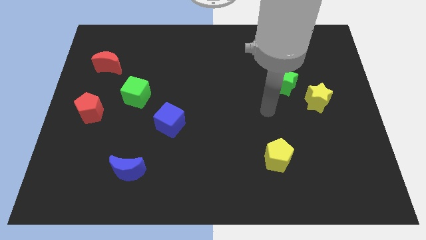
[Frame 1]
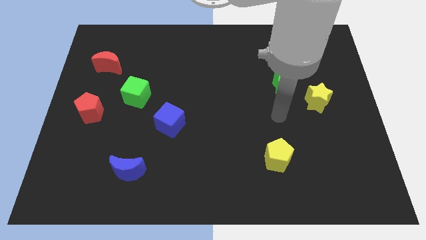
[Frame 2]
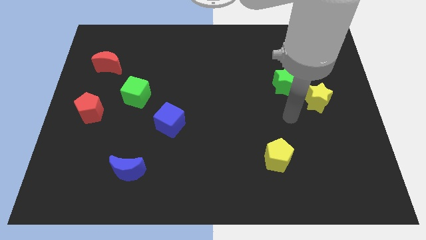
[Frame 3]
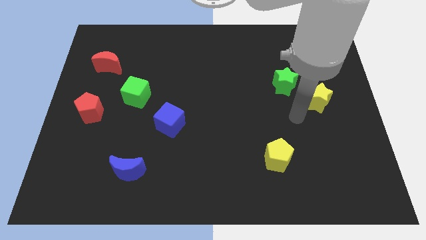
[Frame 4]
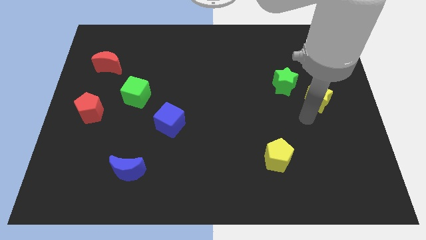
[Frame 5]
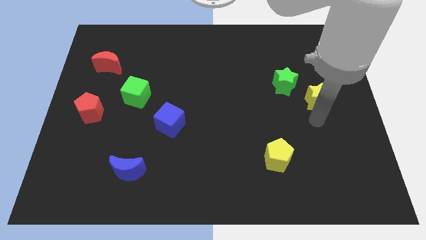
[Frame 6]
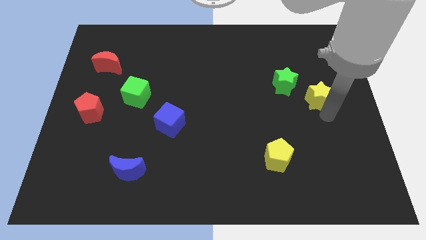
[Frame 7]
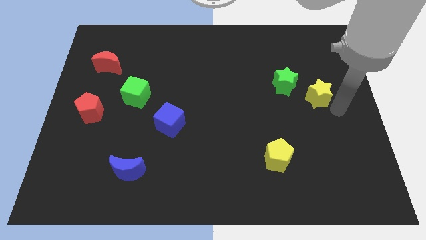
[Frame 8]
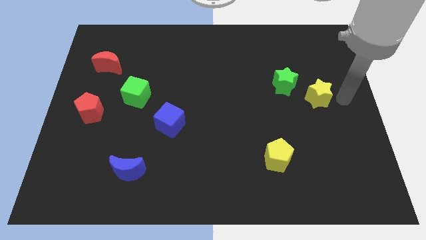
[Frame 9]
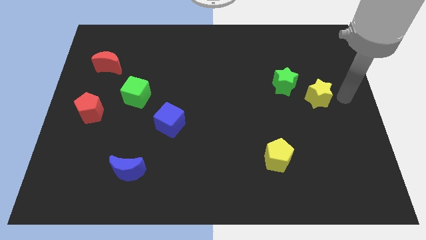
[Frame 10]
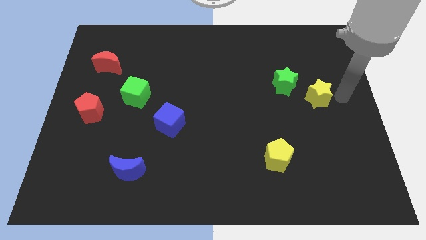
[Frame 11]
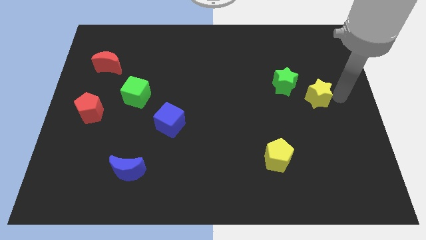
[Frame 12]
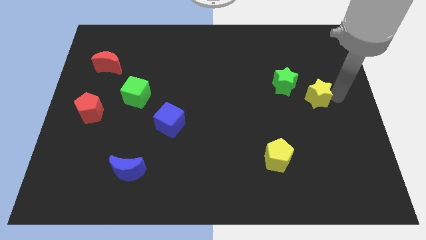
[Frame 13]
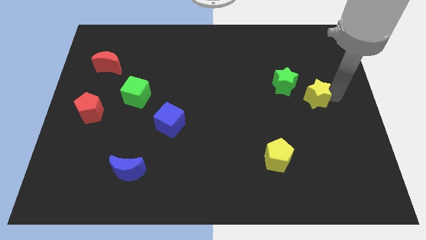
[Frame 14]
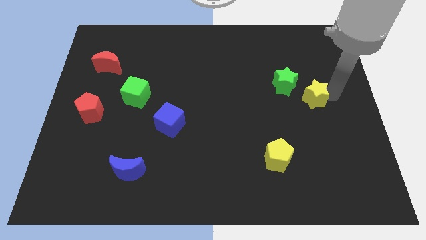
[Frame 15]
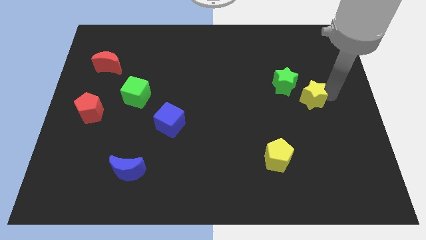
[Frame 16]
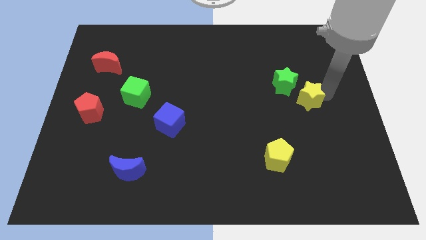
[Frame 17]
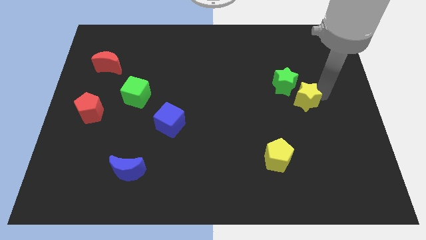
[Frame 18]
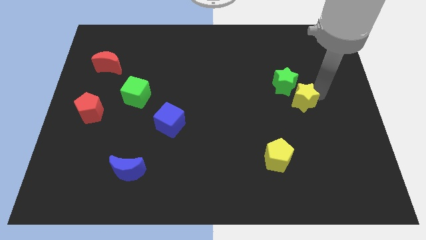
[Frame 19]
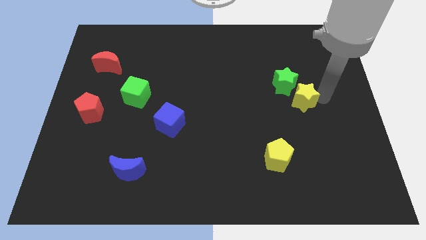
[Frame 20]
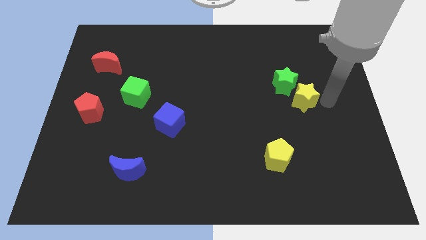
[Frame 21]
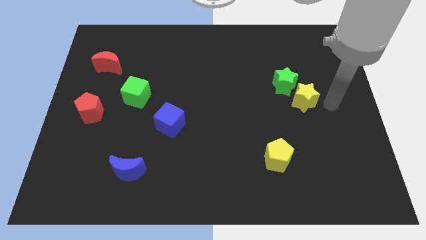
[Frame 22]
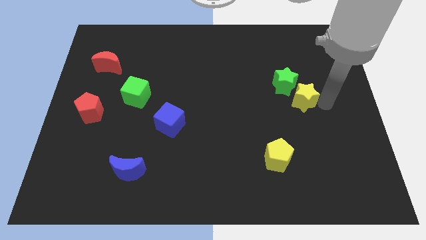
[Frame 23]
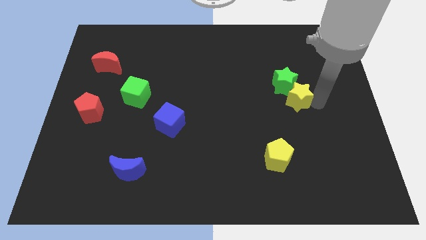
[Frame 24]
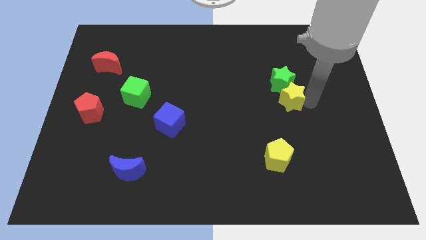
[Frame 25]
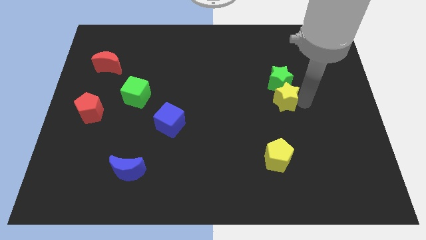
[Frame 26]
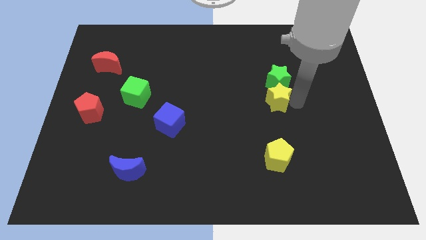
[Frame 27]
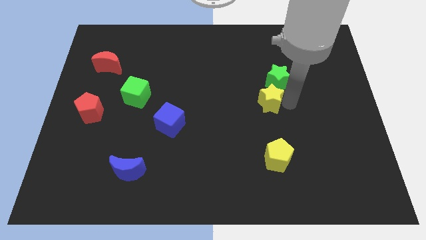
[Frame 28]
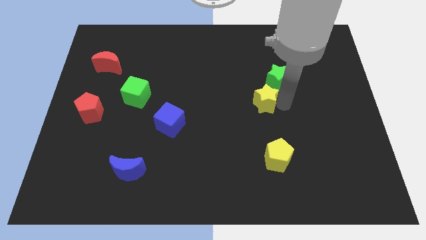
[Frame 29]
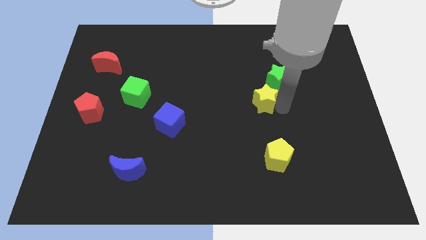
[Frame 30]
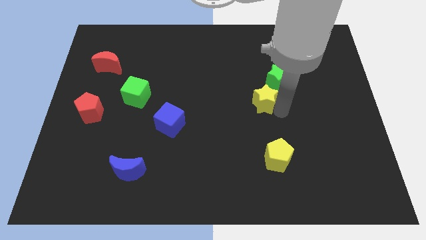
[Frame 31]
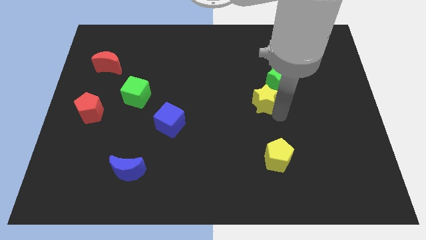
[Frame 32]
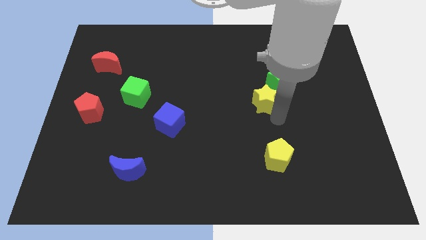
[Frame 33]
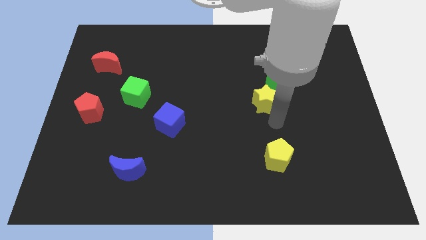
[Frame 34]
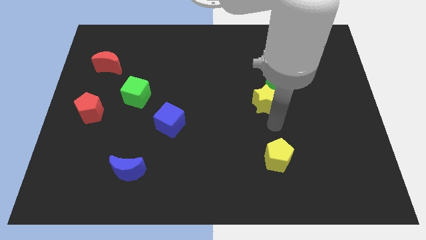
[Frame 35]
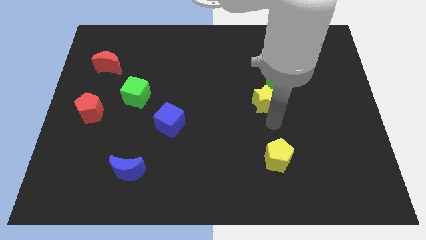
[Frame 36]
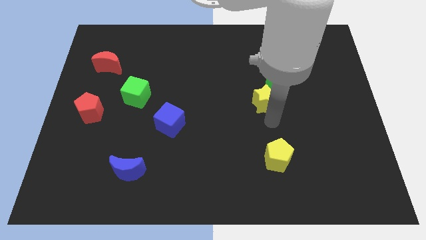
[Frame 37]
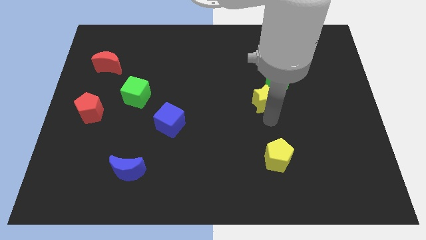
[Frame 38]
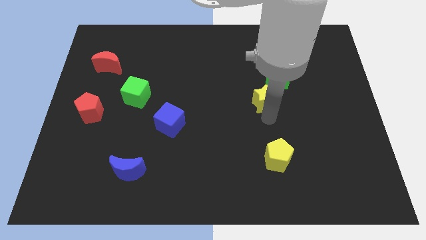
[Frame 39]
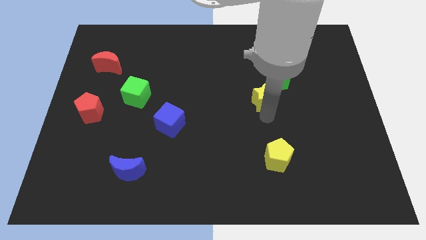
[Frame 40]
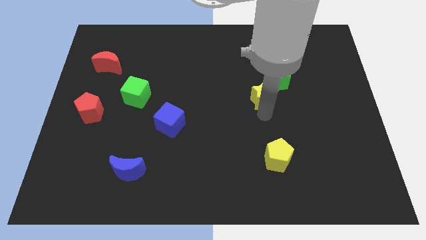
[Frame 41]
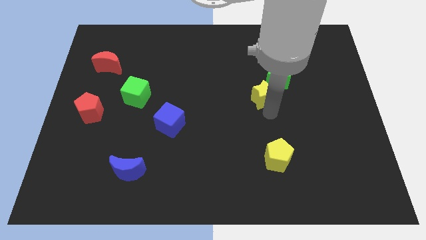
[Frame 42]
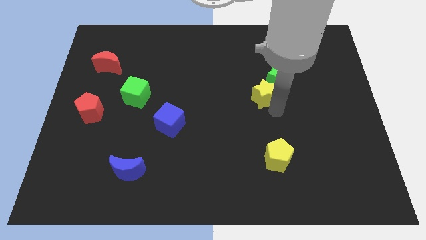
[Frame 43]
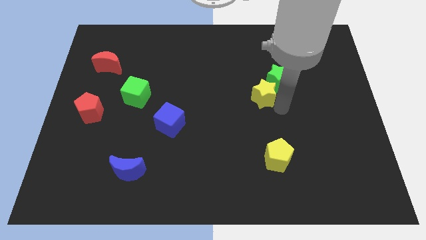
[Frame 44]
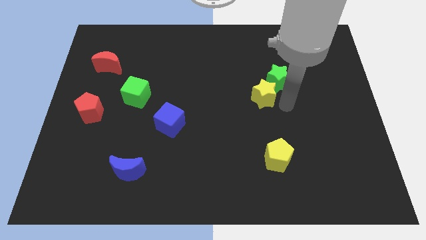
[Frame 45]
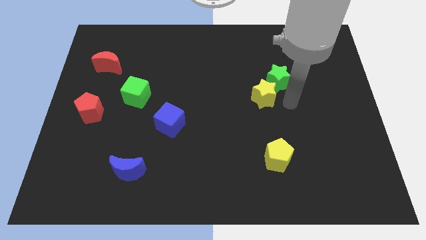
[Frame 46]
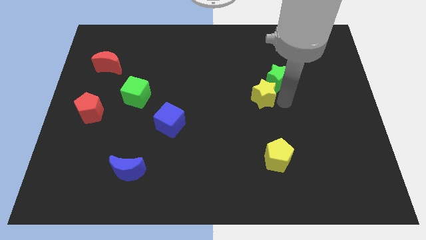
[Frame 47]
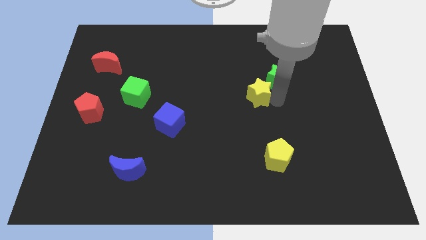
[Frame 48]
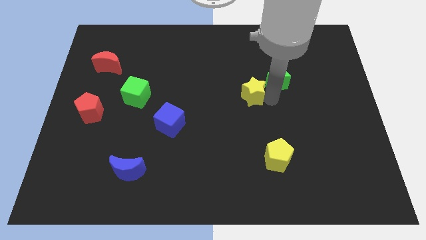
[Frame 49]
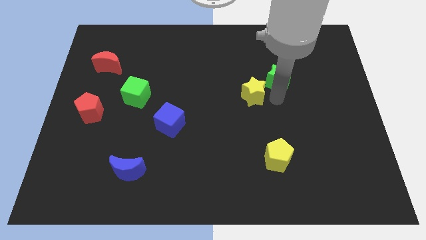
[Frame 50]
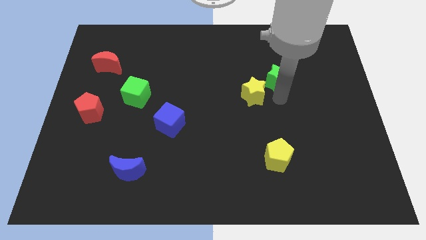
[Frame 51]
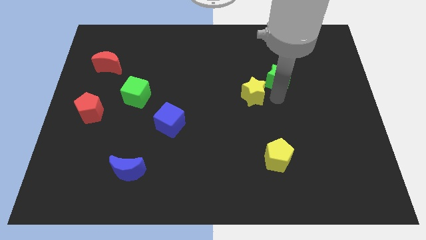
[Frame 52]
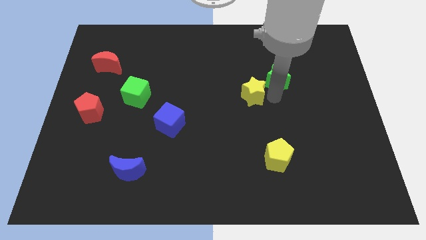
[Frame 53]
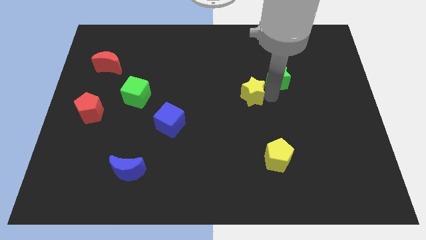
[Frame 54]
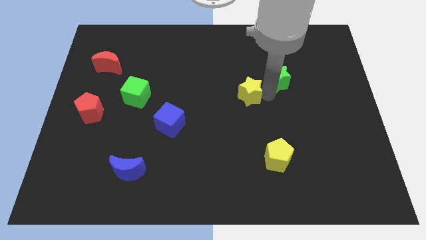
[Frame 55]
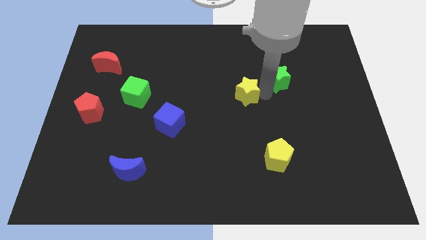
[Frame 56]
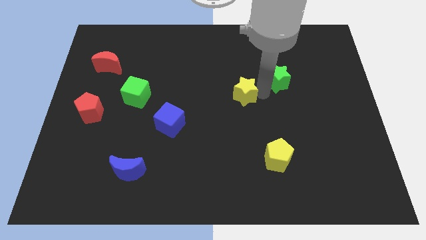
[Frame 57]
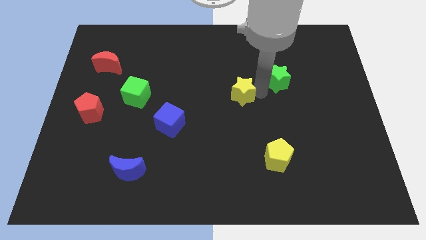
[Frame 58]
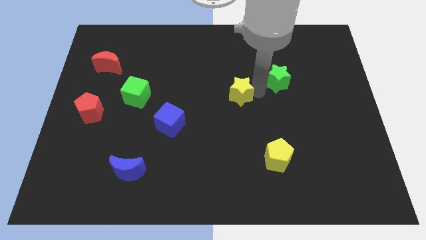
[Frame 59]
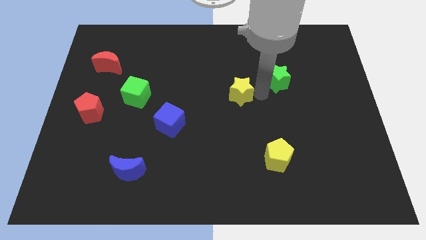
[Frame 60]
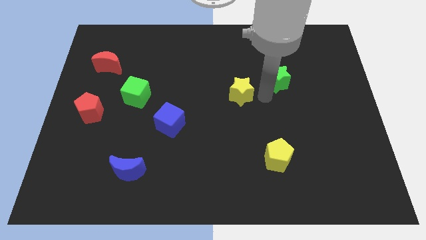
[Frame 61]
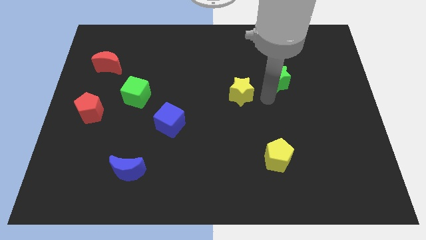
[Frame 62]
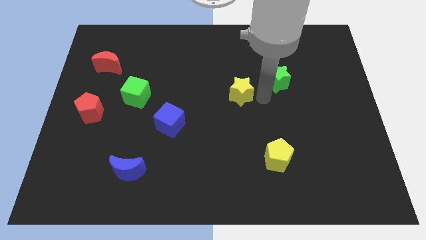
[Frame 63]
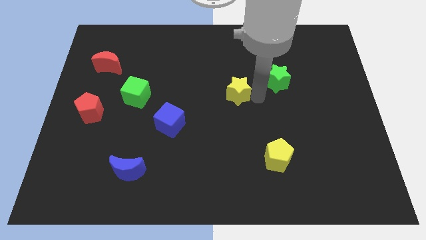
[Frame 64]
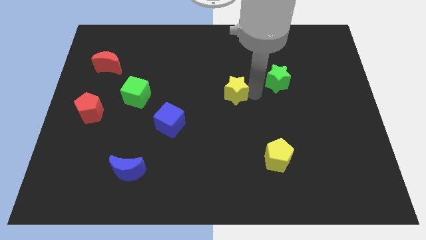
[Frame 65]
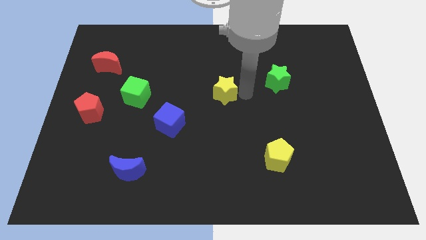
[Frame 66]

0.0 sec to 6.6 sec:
push the yellow star left

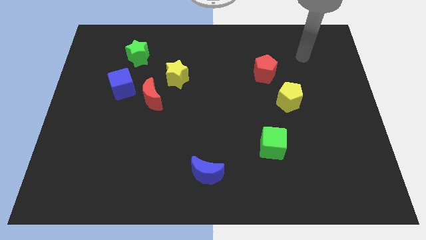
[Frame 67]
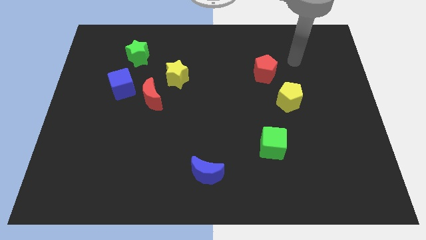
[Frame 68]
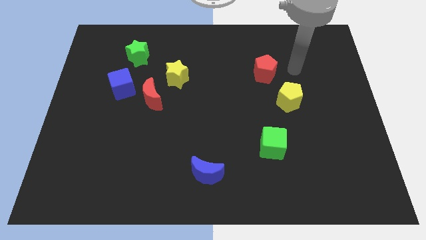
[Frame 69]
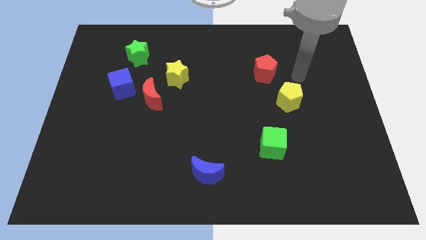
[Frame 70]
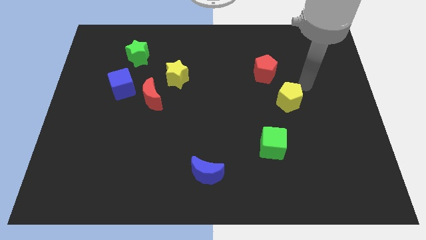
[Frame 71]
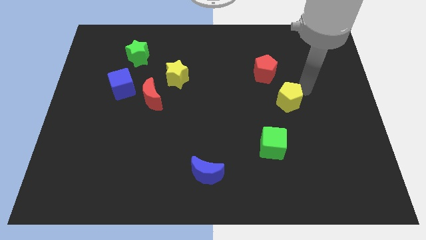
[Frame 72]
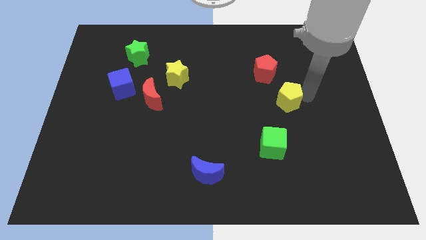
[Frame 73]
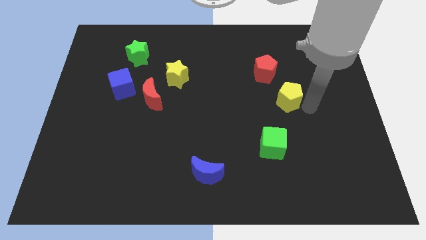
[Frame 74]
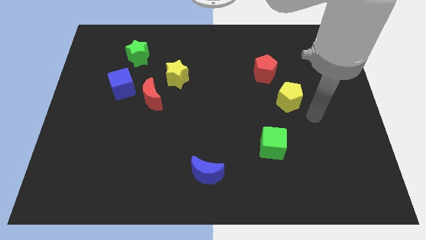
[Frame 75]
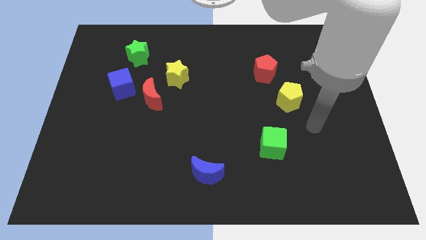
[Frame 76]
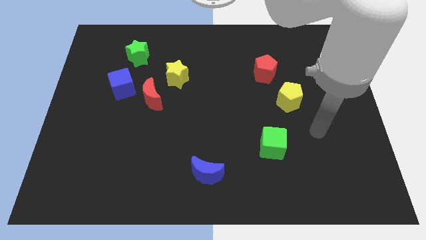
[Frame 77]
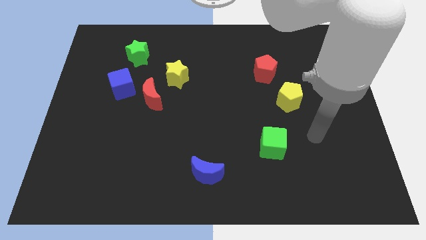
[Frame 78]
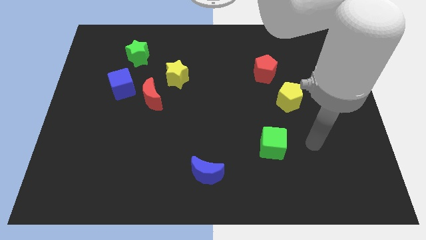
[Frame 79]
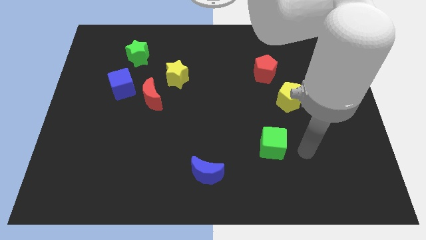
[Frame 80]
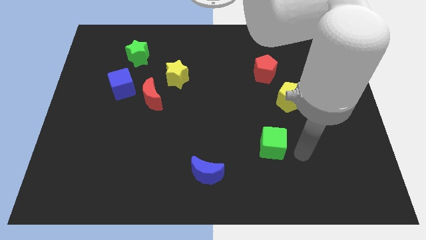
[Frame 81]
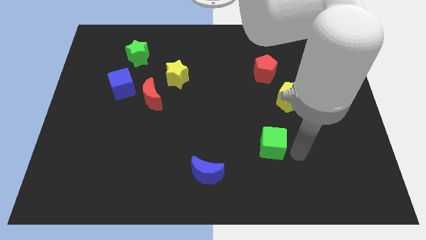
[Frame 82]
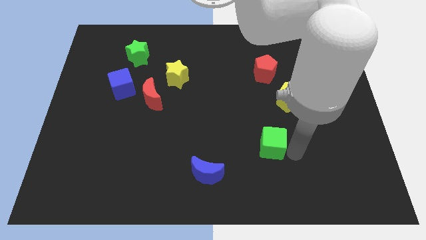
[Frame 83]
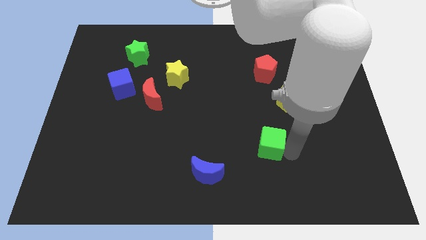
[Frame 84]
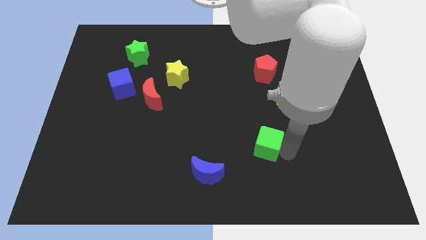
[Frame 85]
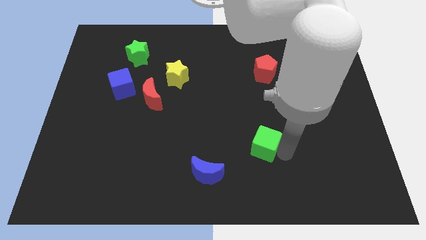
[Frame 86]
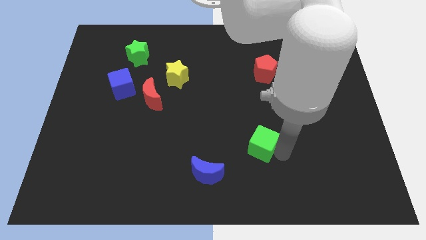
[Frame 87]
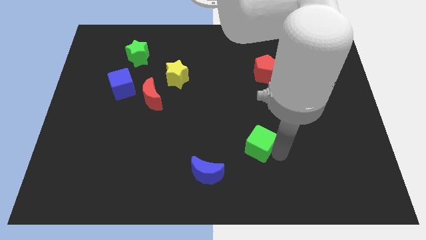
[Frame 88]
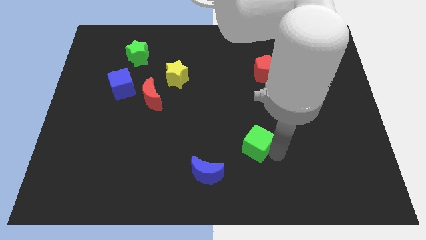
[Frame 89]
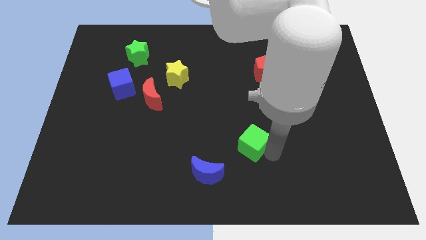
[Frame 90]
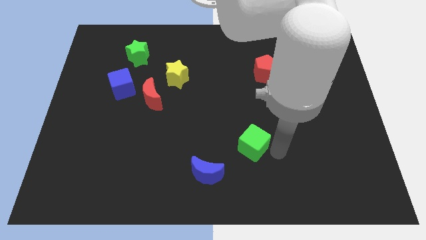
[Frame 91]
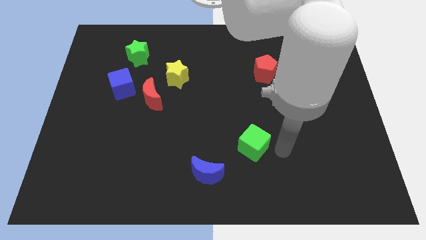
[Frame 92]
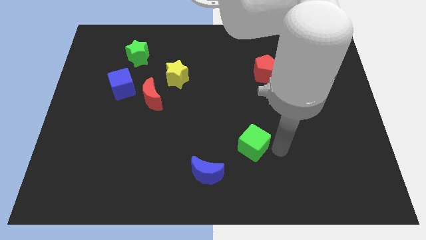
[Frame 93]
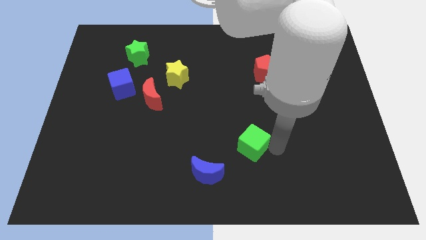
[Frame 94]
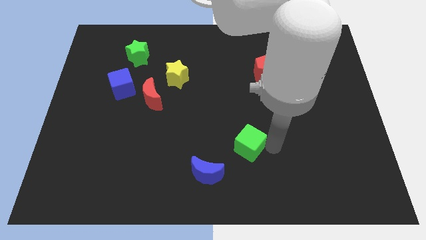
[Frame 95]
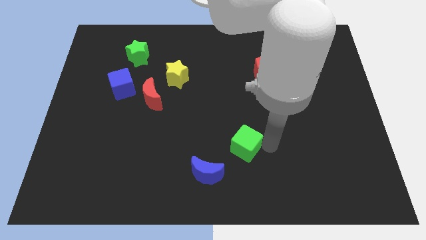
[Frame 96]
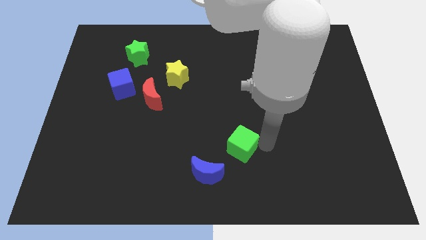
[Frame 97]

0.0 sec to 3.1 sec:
slide the green cube a bit to the left
